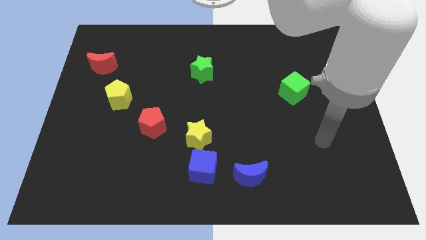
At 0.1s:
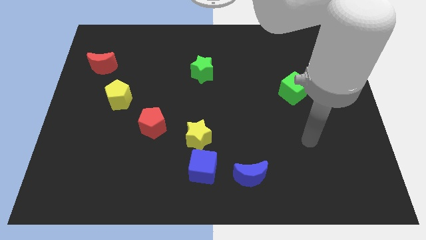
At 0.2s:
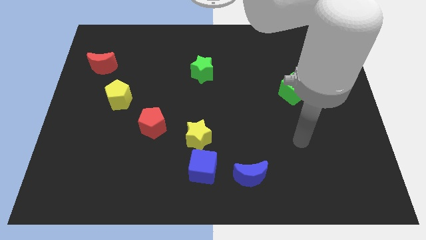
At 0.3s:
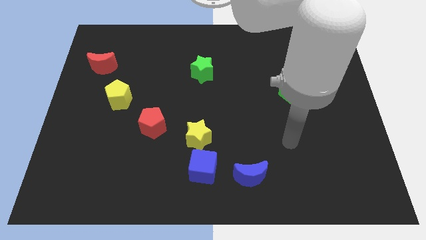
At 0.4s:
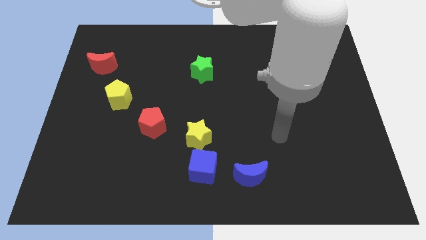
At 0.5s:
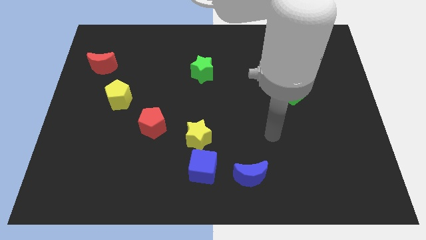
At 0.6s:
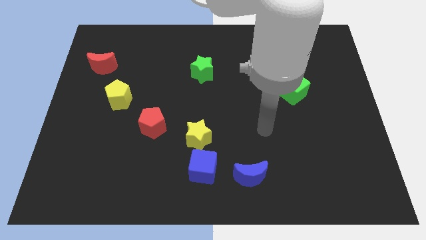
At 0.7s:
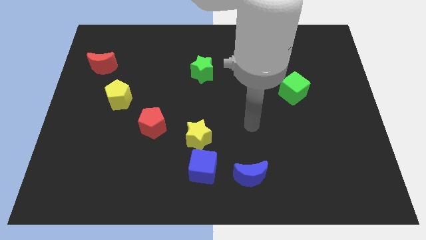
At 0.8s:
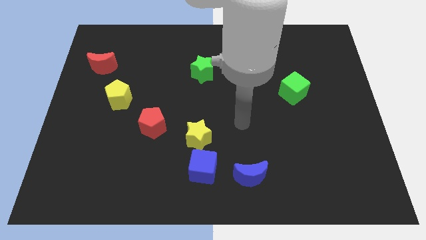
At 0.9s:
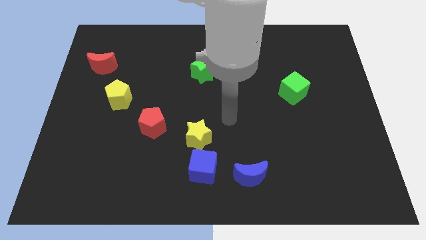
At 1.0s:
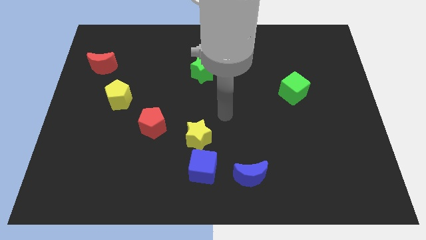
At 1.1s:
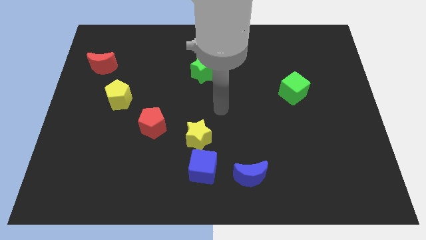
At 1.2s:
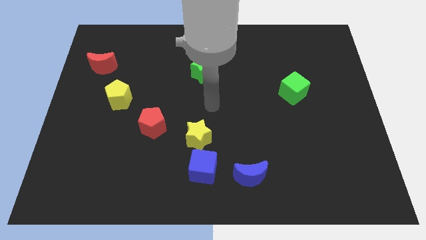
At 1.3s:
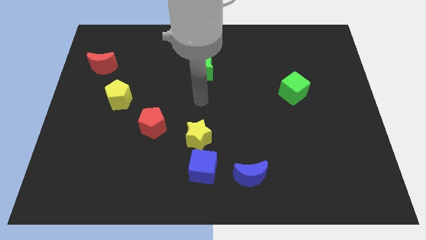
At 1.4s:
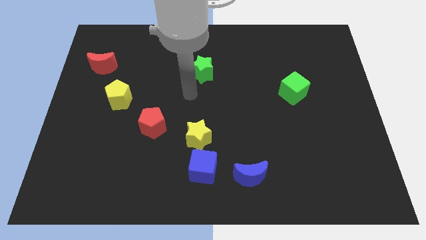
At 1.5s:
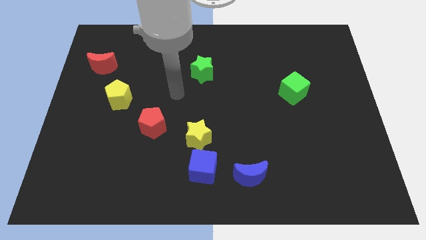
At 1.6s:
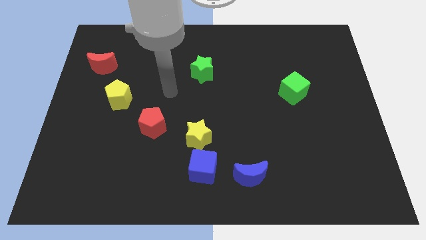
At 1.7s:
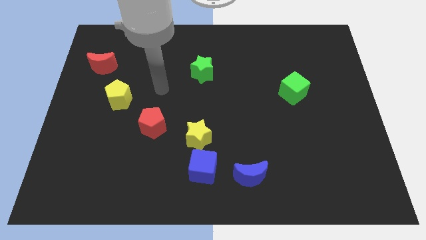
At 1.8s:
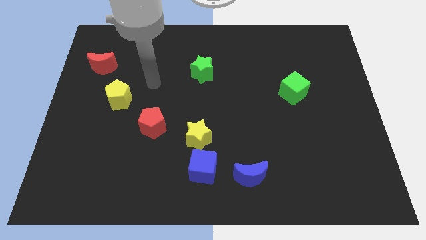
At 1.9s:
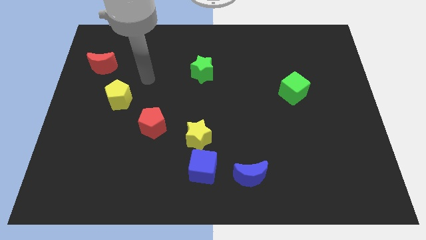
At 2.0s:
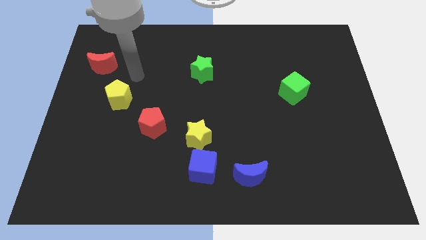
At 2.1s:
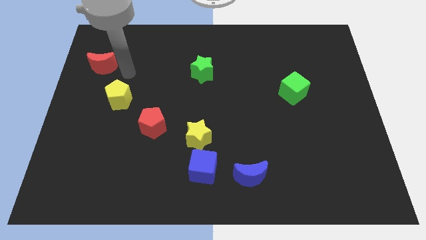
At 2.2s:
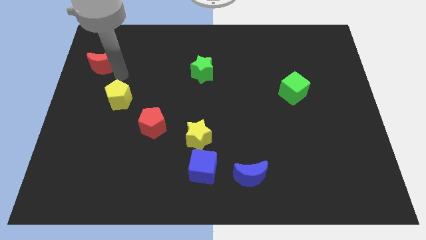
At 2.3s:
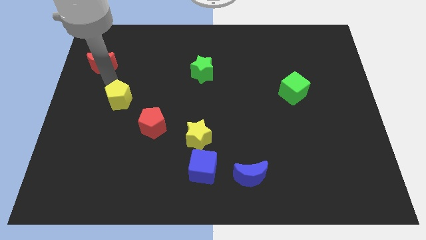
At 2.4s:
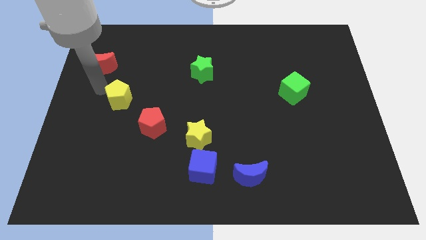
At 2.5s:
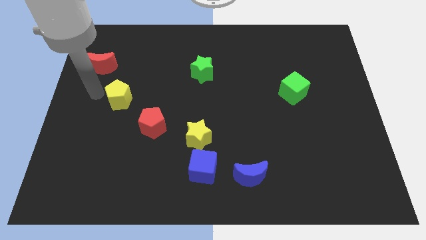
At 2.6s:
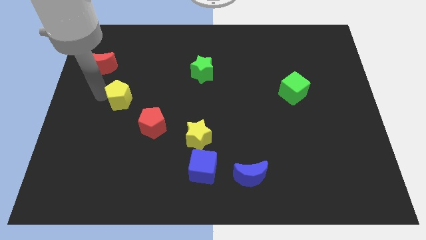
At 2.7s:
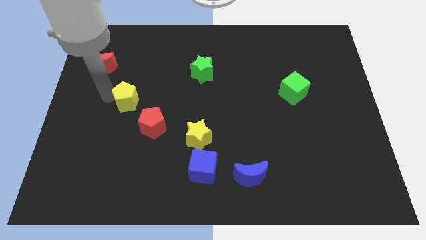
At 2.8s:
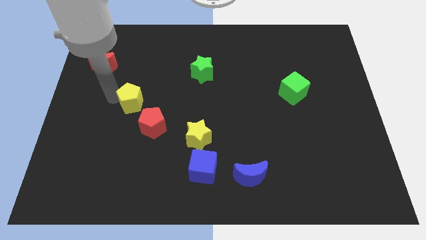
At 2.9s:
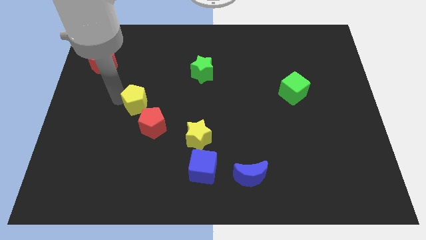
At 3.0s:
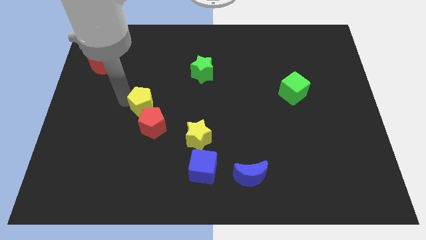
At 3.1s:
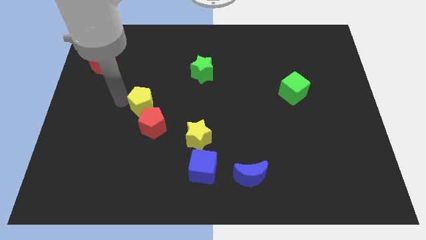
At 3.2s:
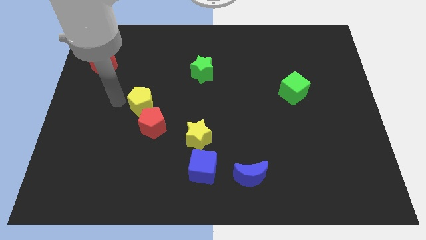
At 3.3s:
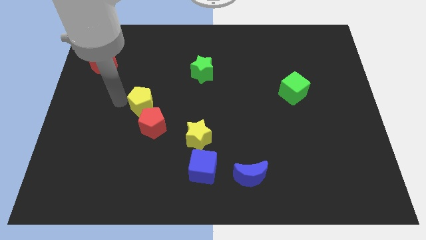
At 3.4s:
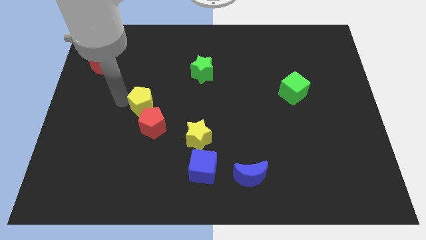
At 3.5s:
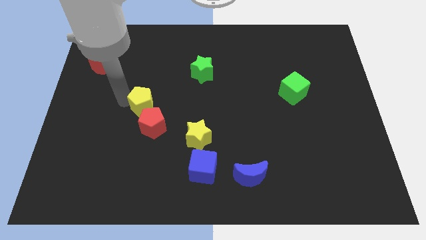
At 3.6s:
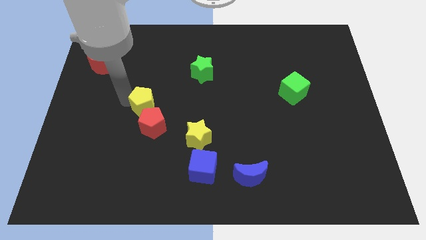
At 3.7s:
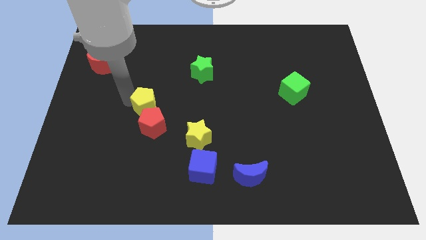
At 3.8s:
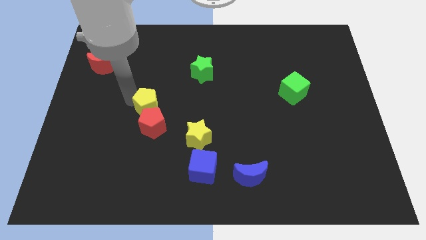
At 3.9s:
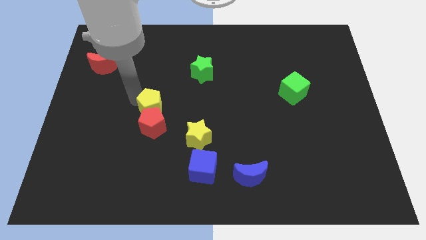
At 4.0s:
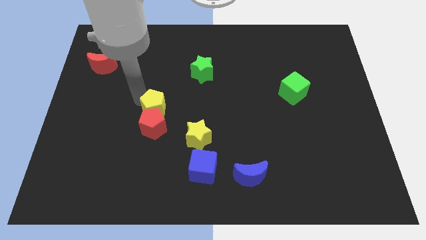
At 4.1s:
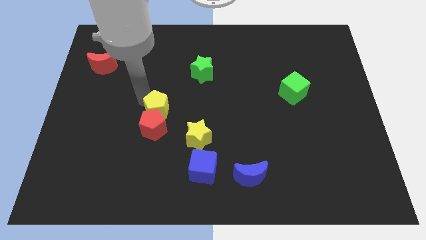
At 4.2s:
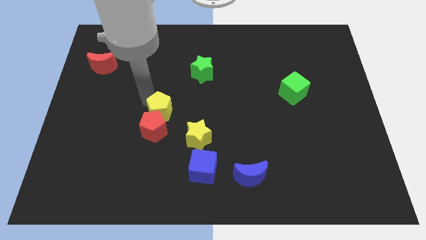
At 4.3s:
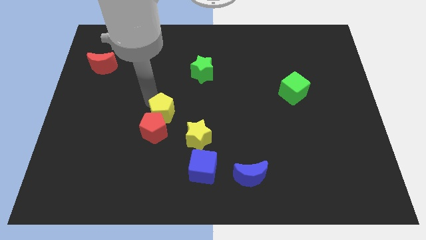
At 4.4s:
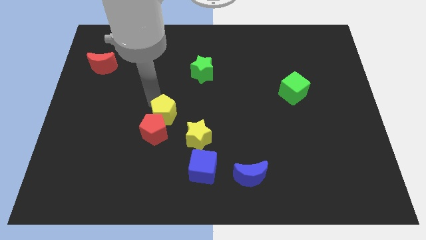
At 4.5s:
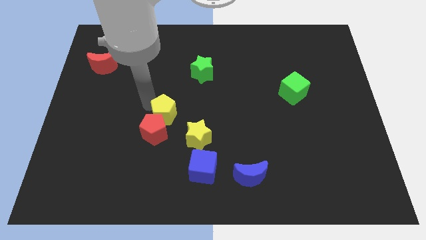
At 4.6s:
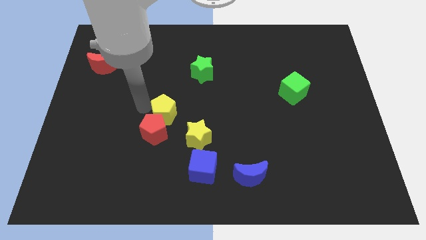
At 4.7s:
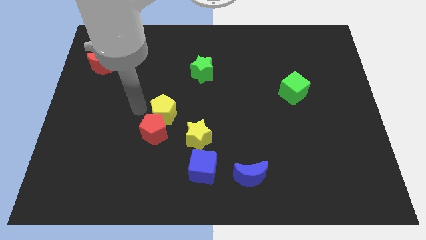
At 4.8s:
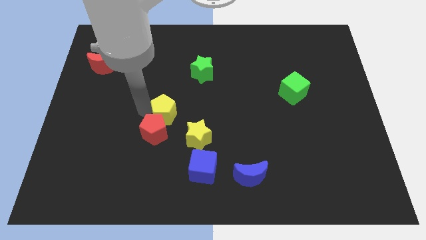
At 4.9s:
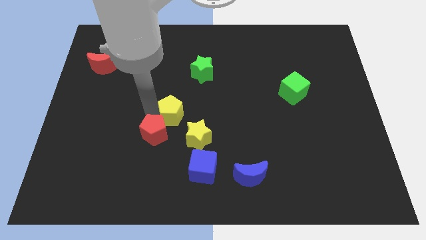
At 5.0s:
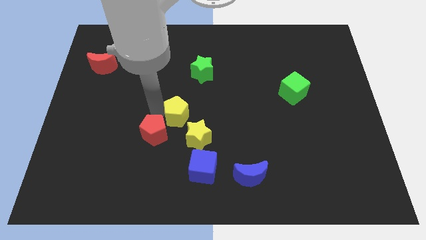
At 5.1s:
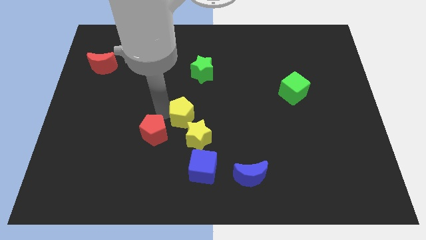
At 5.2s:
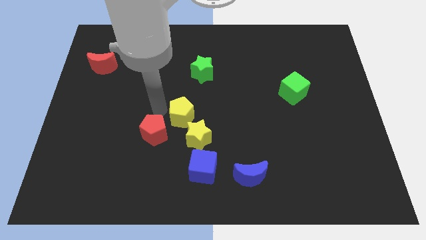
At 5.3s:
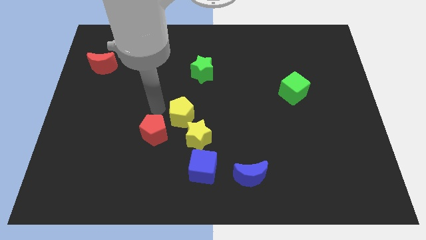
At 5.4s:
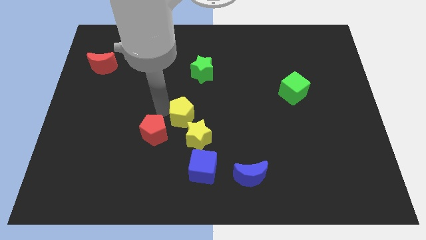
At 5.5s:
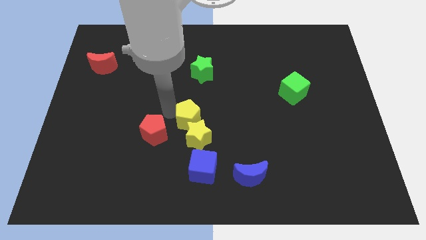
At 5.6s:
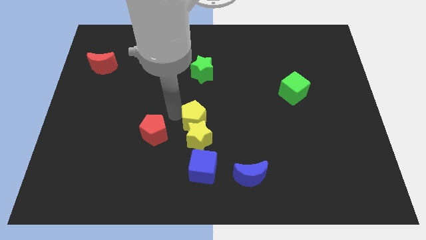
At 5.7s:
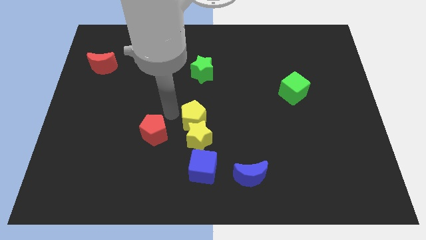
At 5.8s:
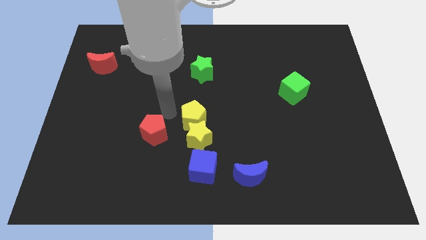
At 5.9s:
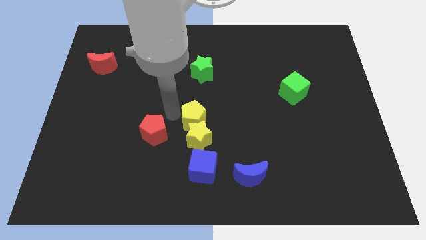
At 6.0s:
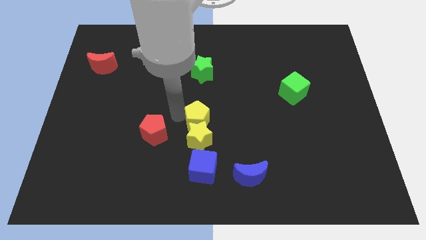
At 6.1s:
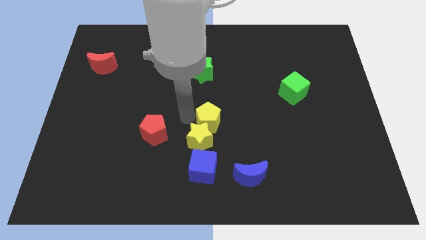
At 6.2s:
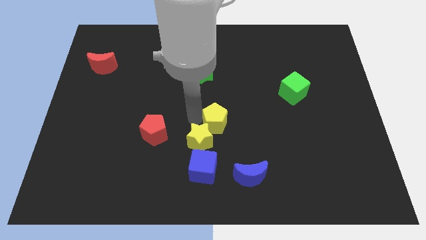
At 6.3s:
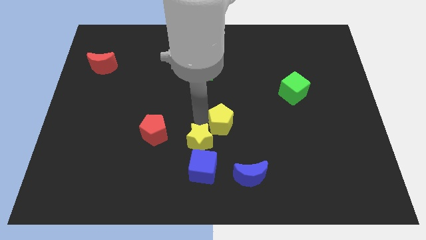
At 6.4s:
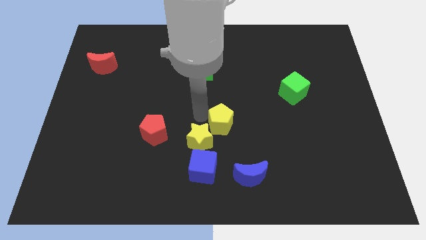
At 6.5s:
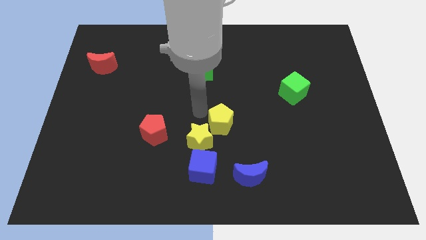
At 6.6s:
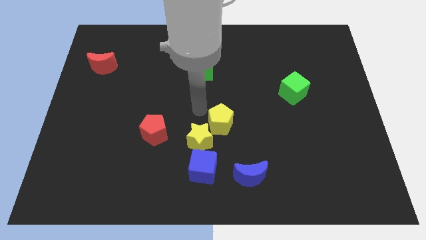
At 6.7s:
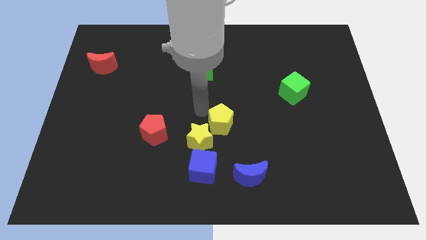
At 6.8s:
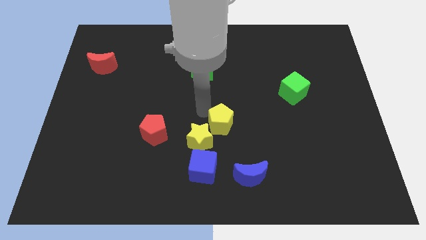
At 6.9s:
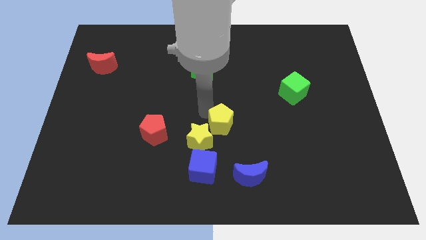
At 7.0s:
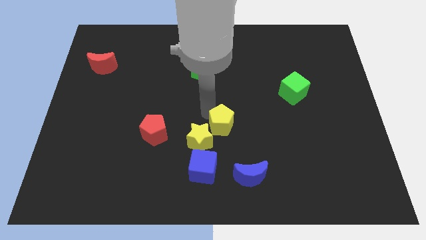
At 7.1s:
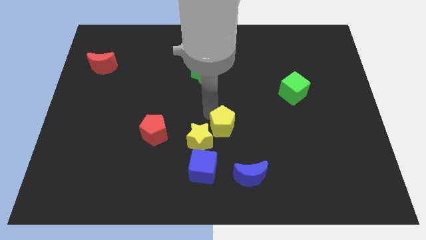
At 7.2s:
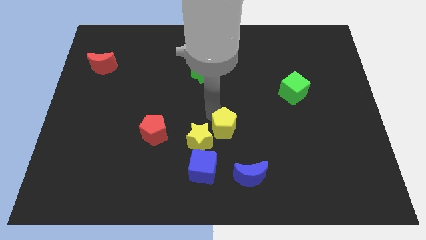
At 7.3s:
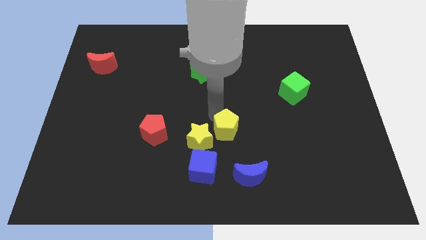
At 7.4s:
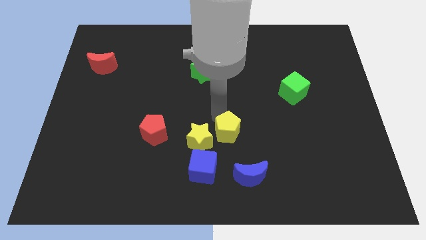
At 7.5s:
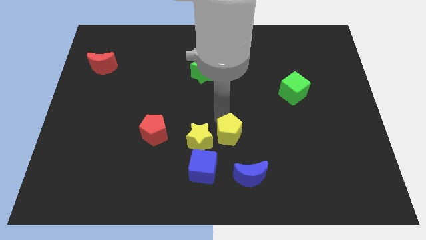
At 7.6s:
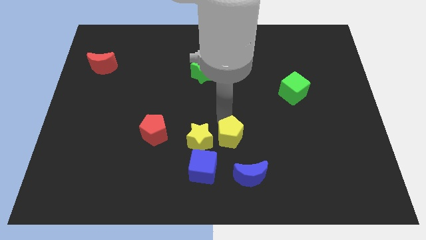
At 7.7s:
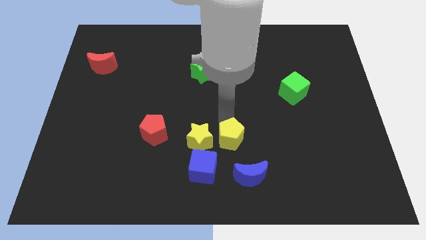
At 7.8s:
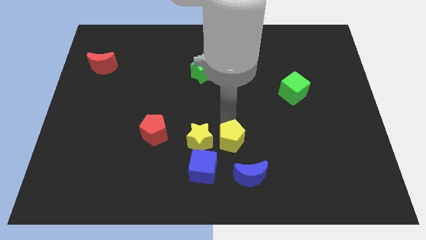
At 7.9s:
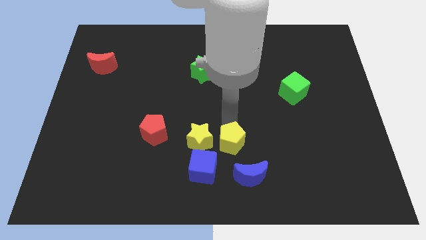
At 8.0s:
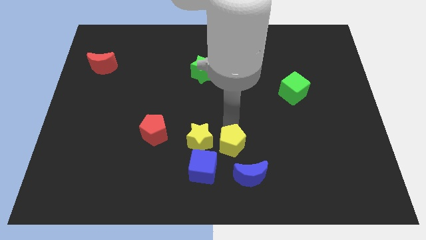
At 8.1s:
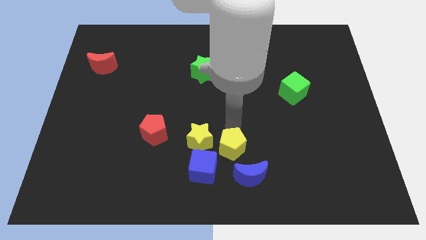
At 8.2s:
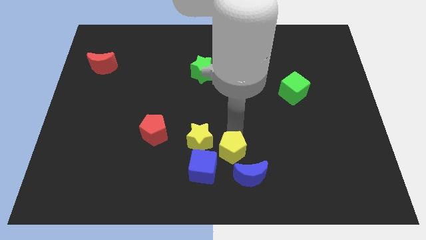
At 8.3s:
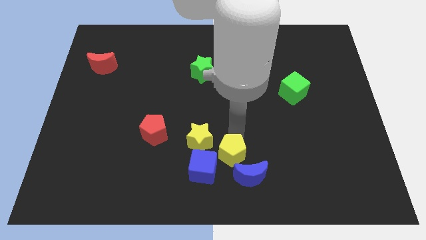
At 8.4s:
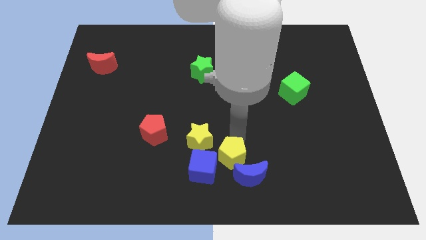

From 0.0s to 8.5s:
put the yellow pentagon towards the blue moon
